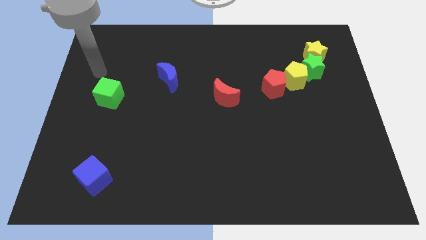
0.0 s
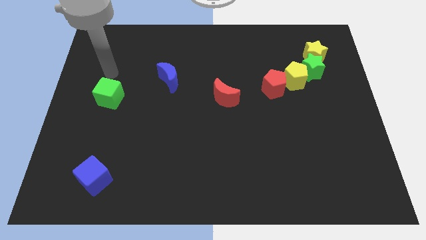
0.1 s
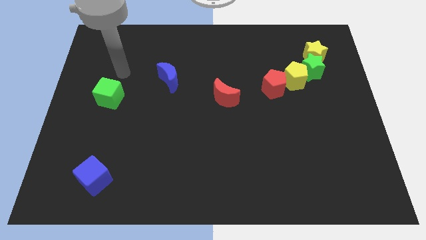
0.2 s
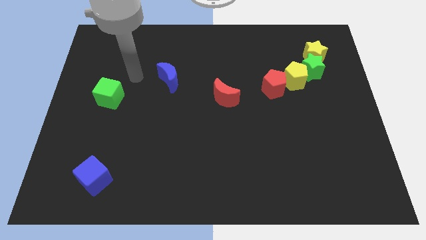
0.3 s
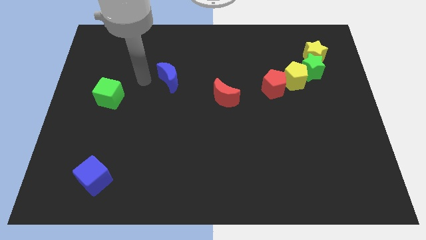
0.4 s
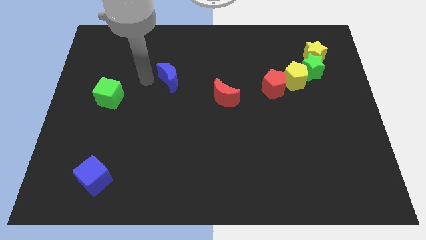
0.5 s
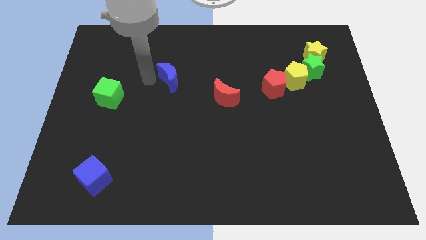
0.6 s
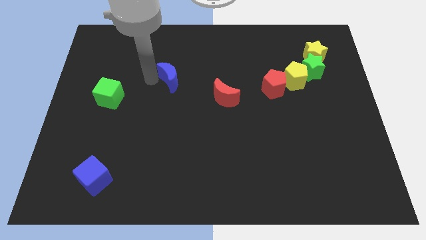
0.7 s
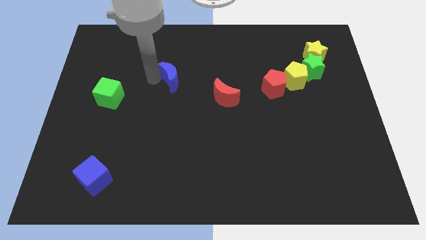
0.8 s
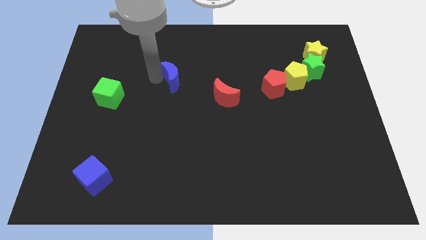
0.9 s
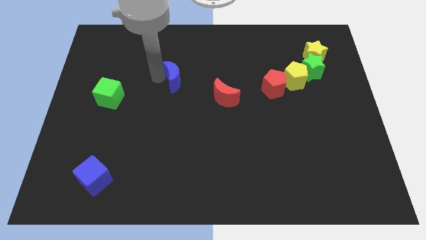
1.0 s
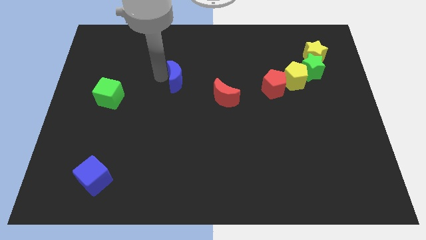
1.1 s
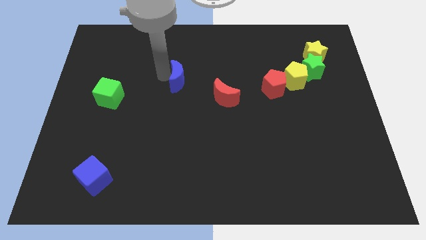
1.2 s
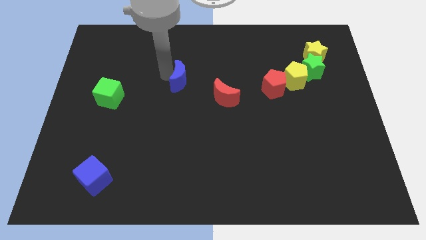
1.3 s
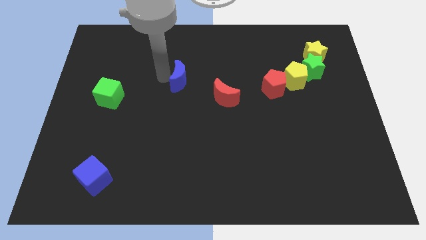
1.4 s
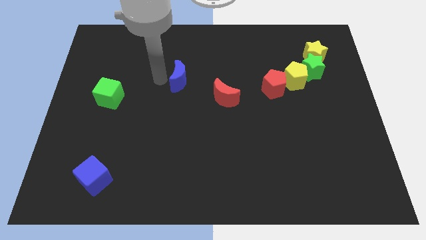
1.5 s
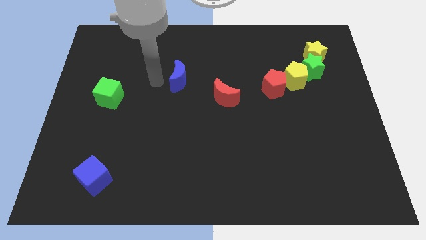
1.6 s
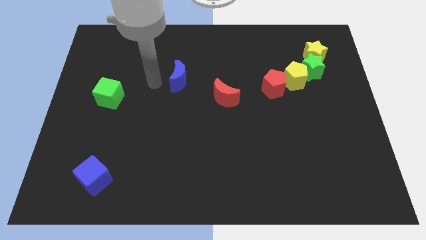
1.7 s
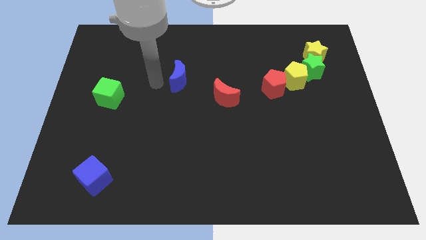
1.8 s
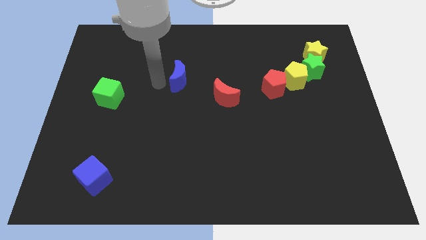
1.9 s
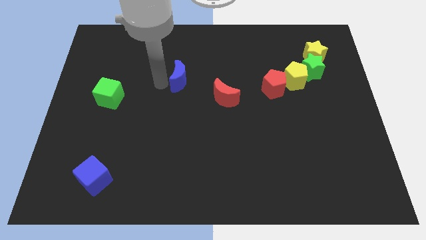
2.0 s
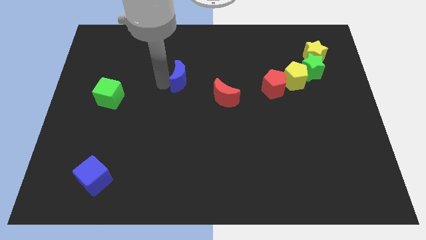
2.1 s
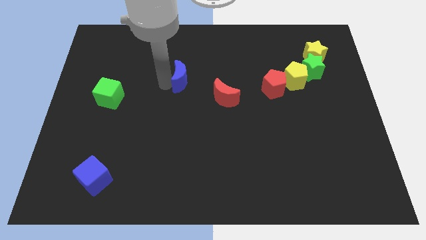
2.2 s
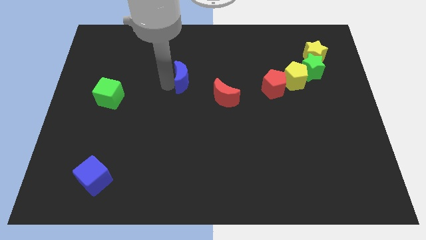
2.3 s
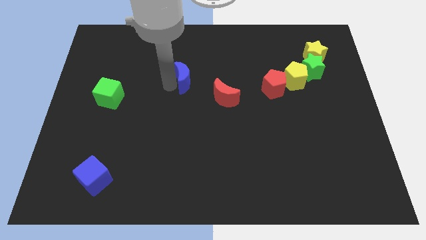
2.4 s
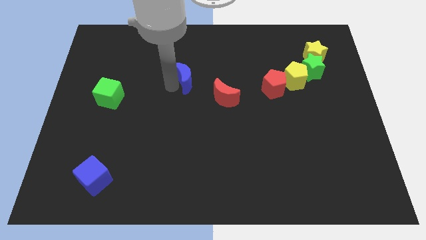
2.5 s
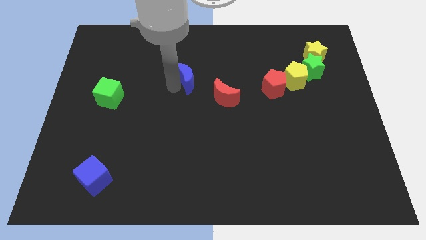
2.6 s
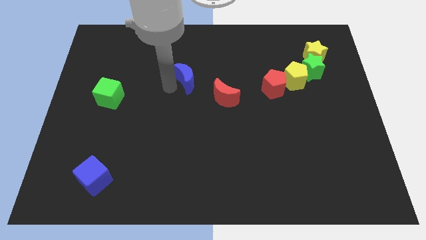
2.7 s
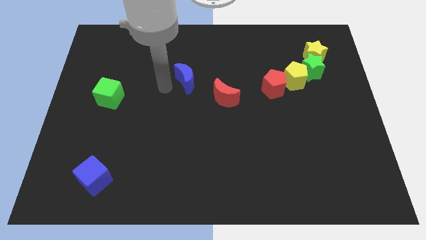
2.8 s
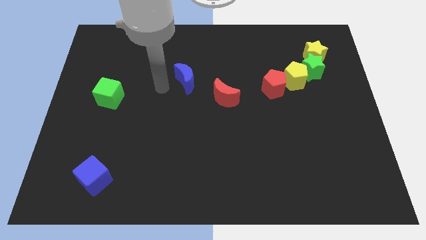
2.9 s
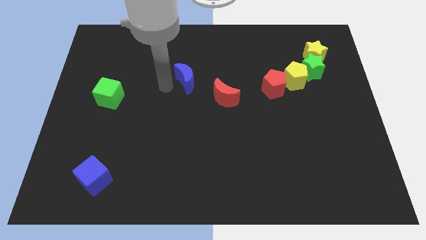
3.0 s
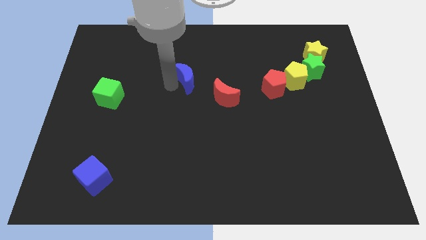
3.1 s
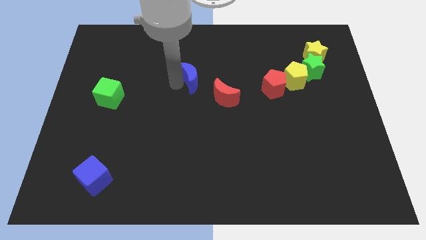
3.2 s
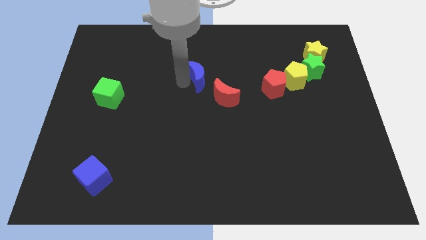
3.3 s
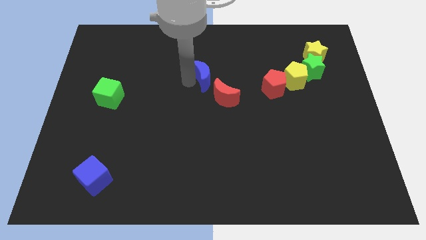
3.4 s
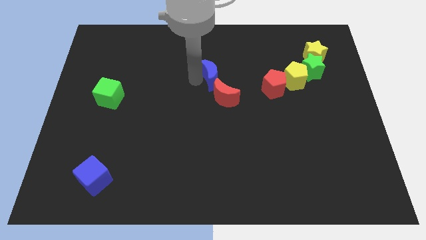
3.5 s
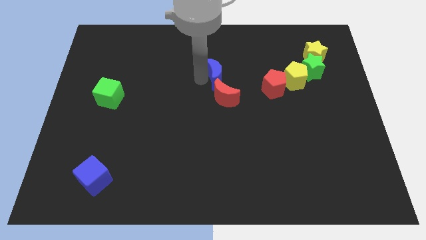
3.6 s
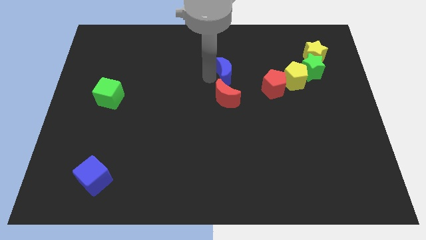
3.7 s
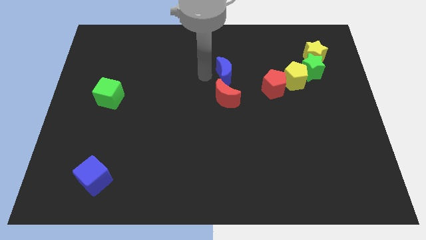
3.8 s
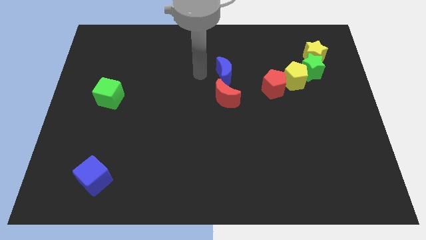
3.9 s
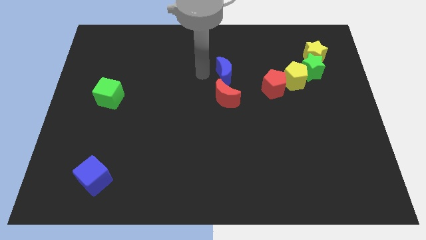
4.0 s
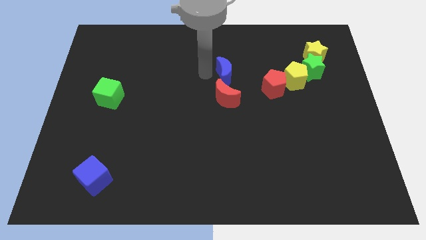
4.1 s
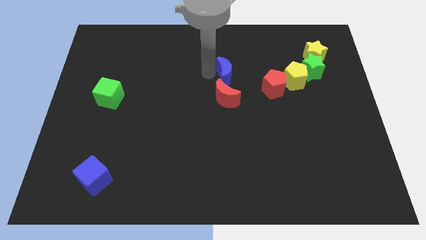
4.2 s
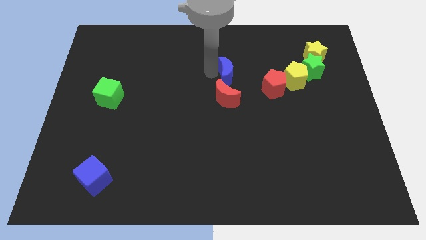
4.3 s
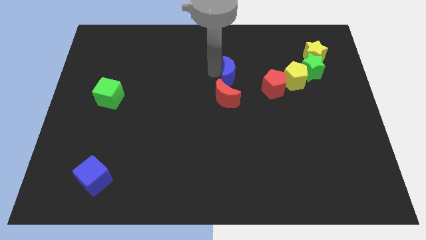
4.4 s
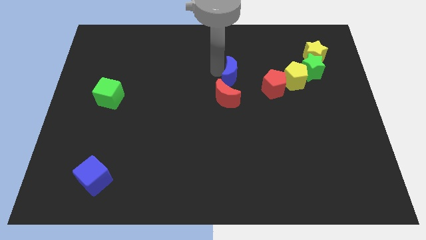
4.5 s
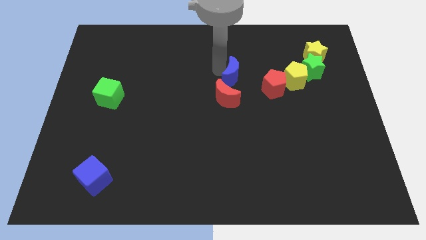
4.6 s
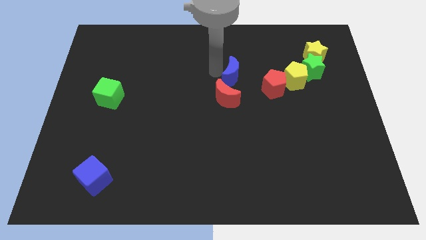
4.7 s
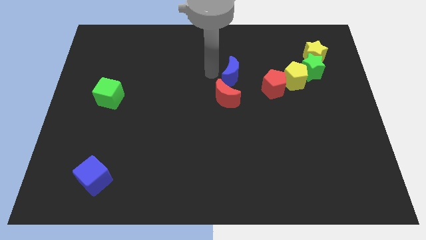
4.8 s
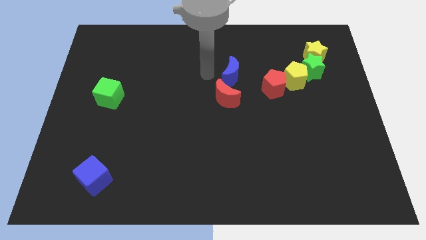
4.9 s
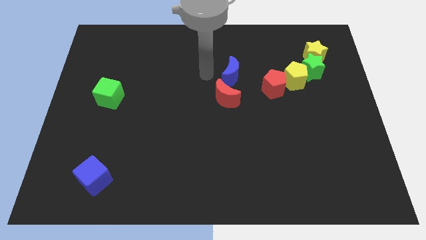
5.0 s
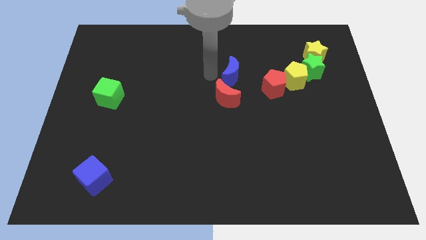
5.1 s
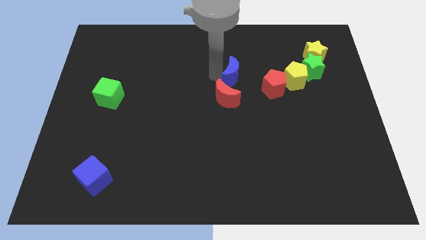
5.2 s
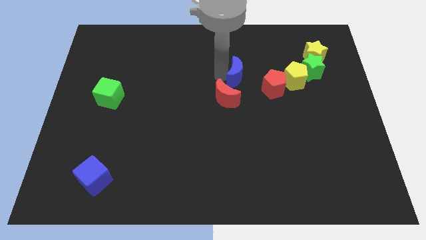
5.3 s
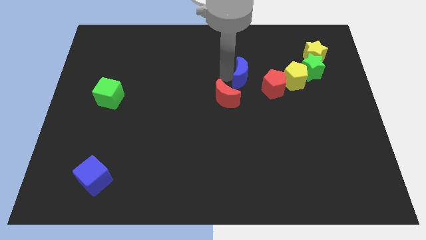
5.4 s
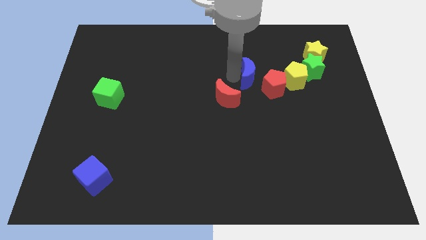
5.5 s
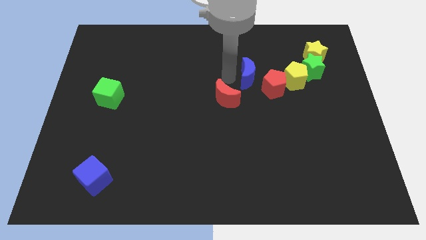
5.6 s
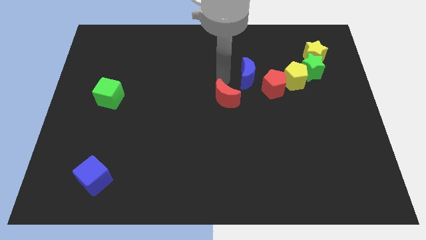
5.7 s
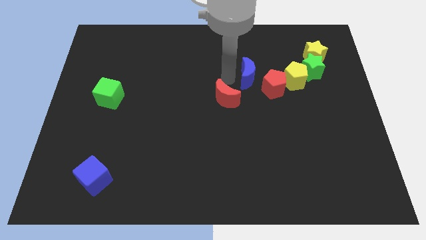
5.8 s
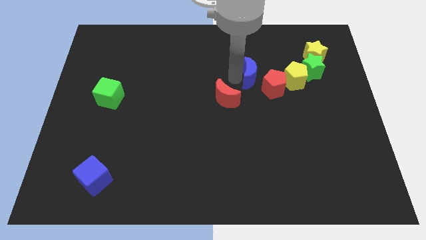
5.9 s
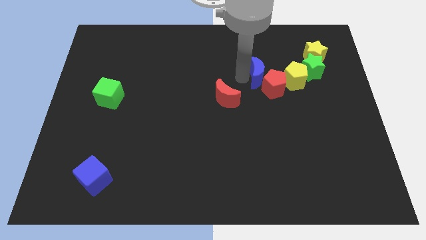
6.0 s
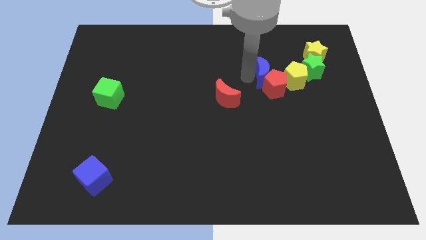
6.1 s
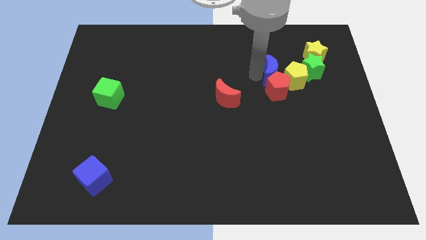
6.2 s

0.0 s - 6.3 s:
move the blue moon to the yellow pentagon
